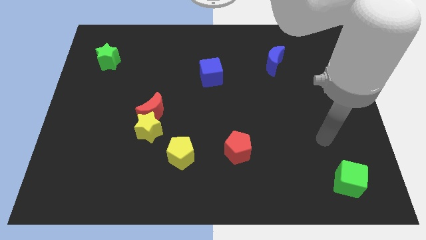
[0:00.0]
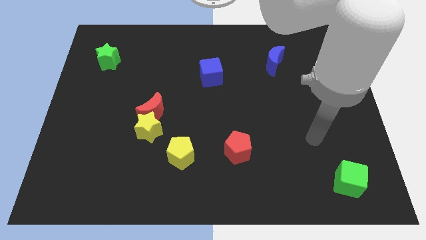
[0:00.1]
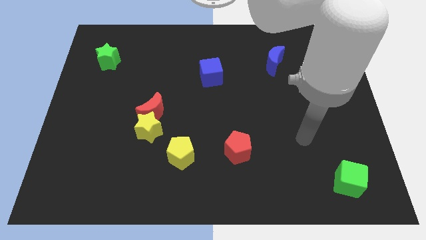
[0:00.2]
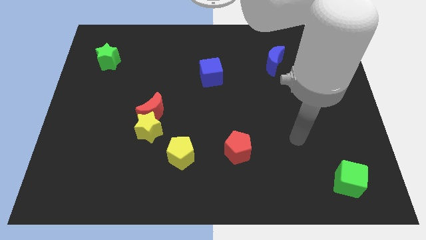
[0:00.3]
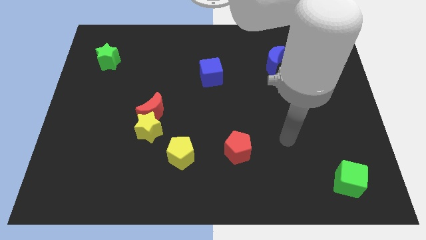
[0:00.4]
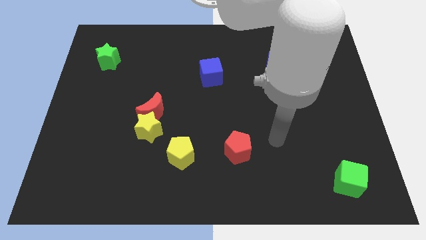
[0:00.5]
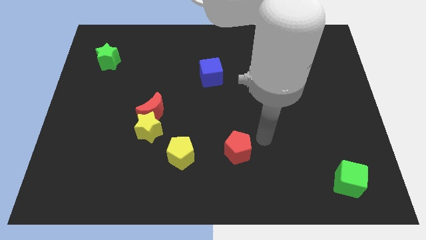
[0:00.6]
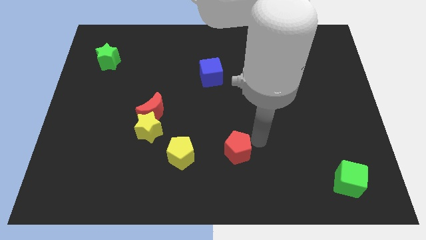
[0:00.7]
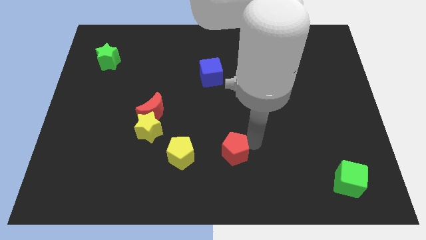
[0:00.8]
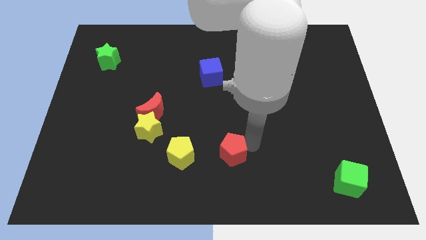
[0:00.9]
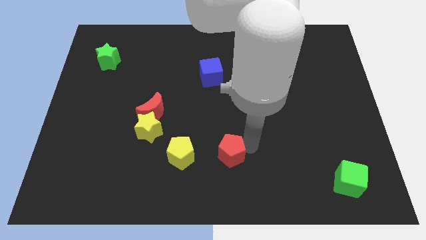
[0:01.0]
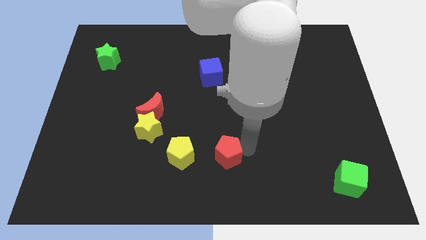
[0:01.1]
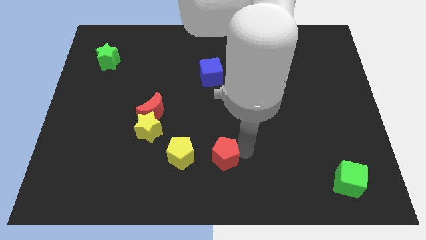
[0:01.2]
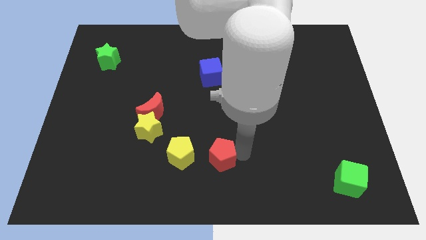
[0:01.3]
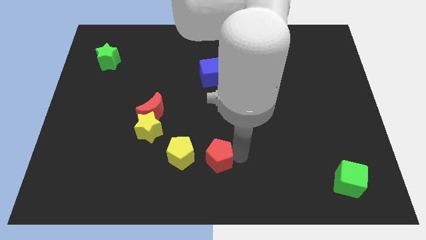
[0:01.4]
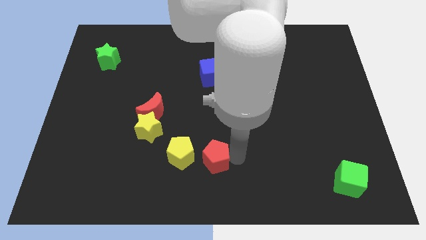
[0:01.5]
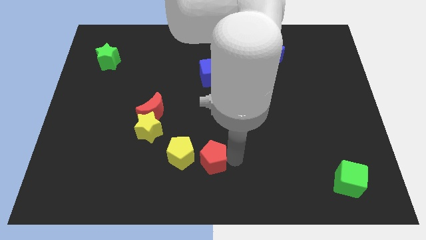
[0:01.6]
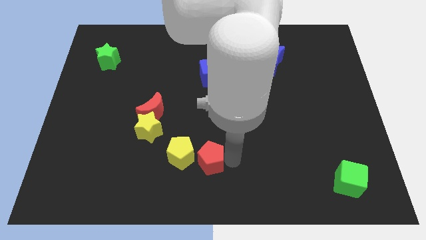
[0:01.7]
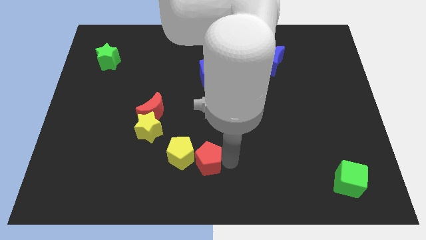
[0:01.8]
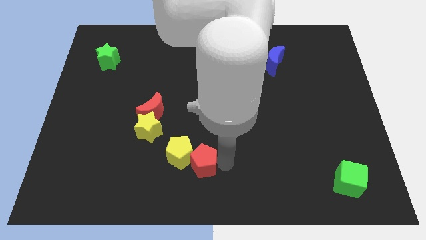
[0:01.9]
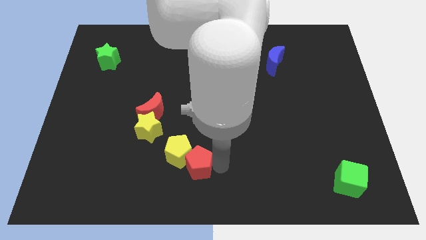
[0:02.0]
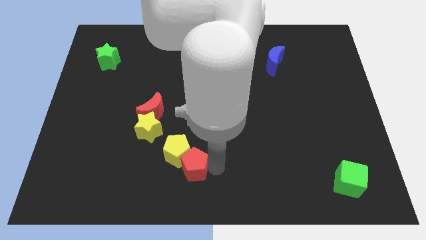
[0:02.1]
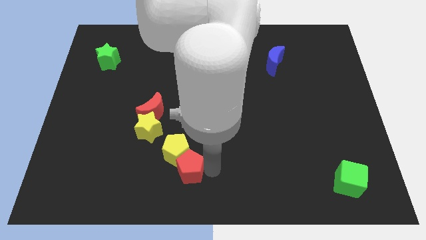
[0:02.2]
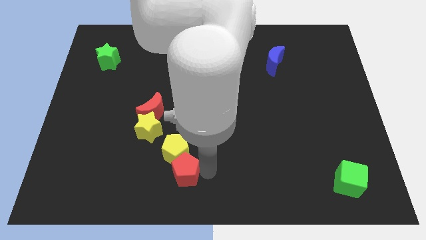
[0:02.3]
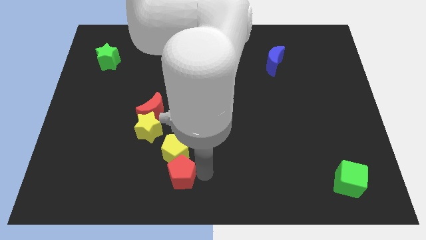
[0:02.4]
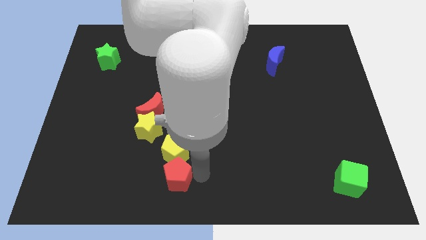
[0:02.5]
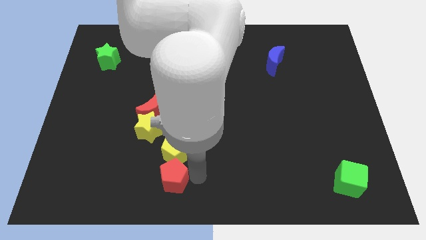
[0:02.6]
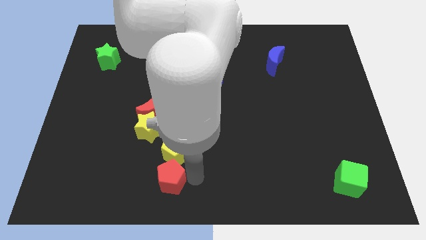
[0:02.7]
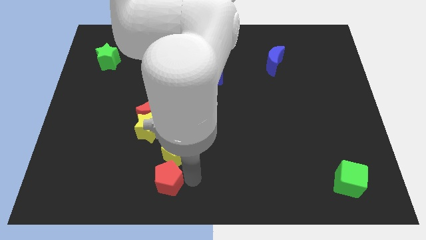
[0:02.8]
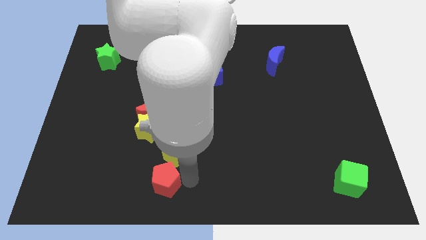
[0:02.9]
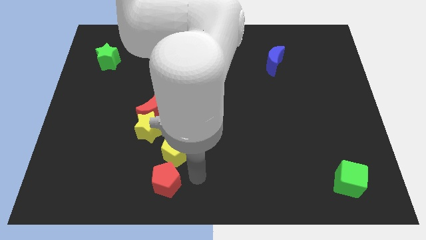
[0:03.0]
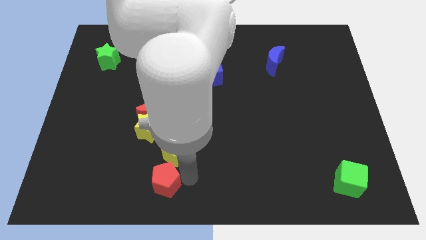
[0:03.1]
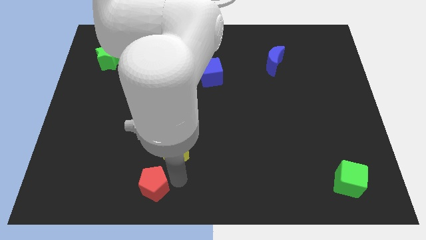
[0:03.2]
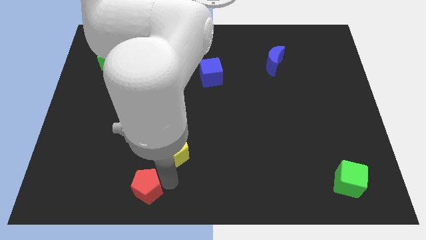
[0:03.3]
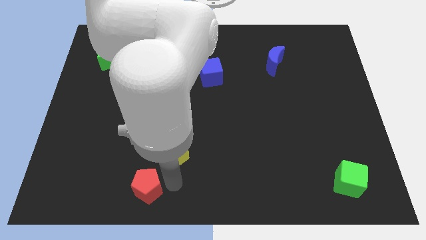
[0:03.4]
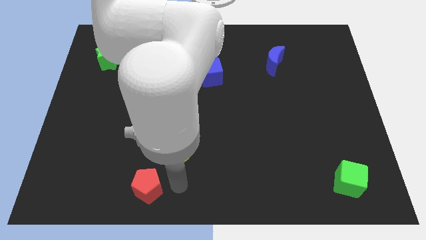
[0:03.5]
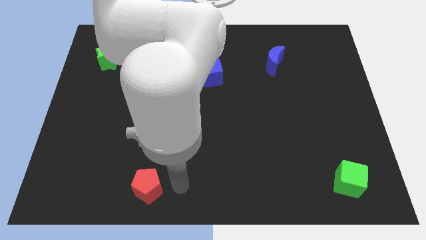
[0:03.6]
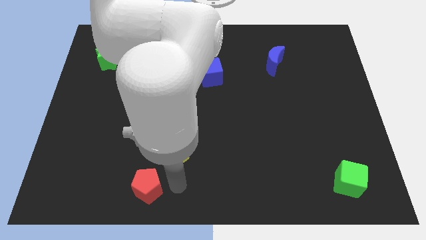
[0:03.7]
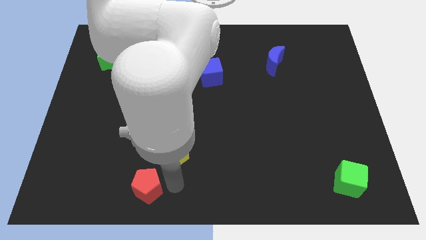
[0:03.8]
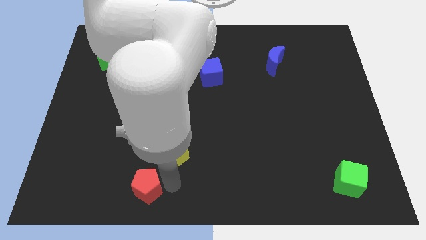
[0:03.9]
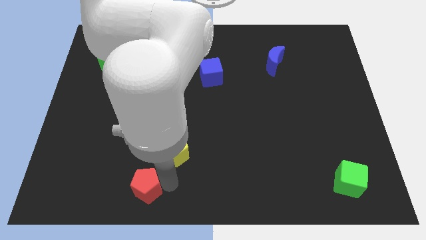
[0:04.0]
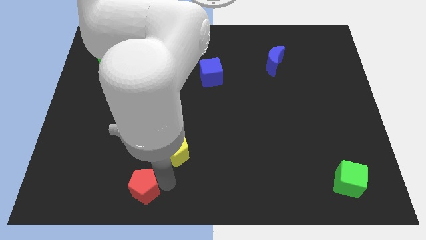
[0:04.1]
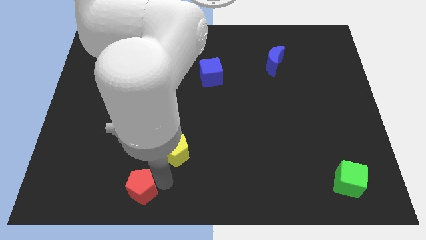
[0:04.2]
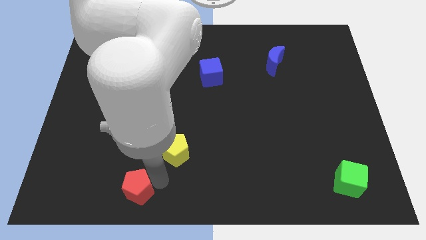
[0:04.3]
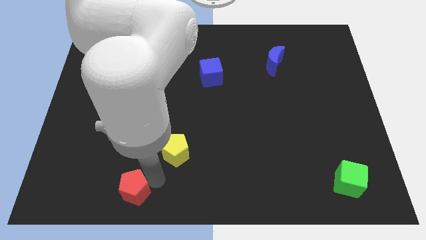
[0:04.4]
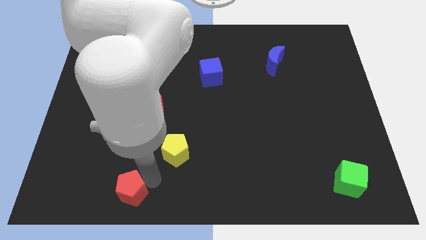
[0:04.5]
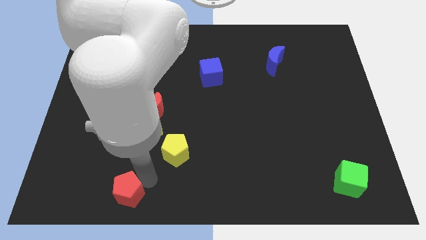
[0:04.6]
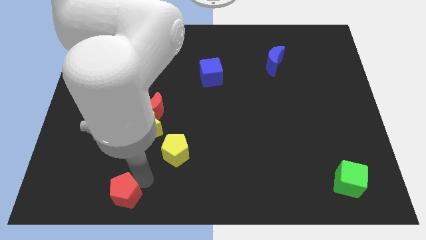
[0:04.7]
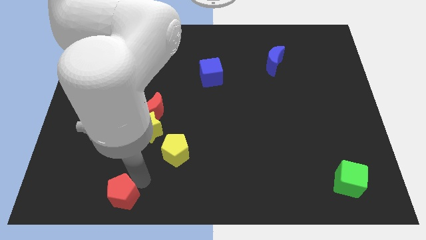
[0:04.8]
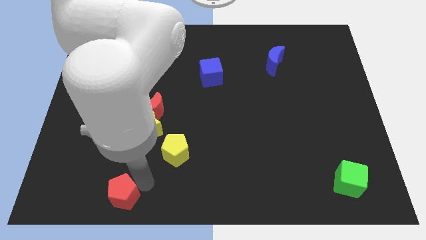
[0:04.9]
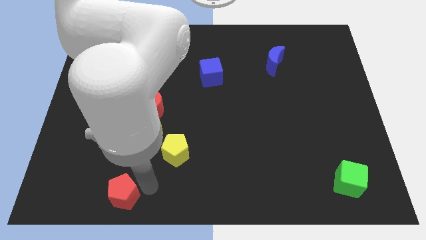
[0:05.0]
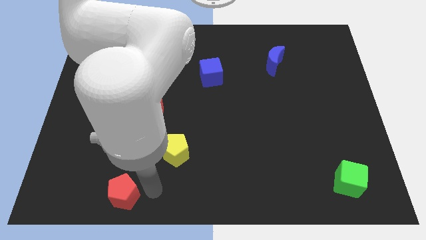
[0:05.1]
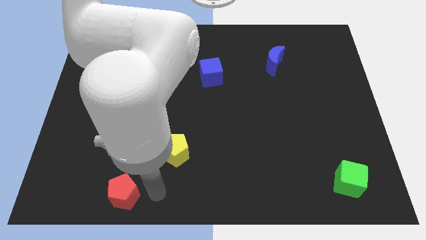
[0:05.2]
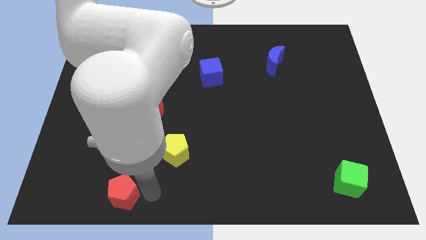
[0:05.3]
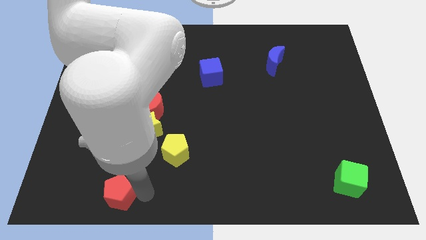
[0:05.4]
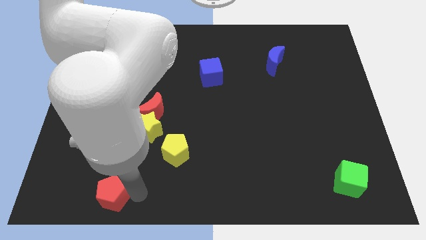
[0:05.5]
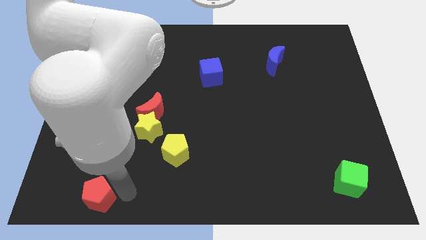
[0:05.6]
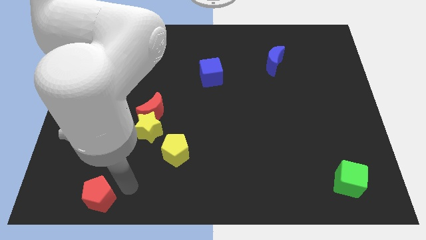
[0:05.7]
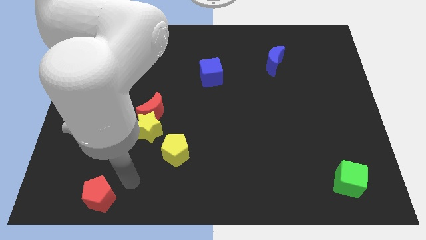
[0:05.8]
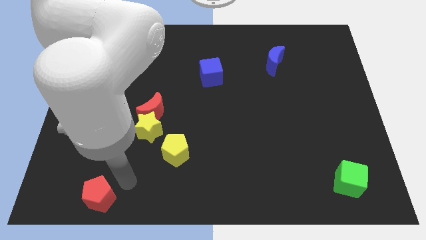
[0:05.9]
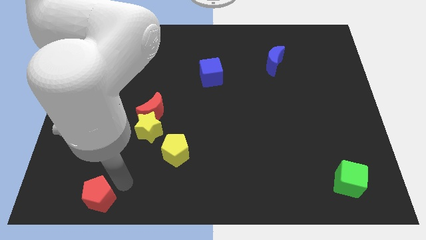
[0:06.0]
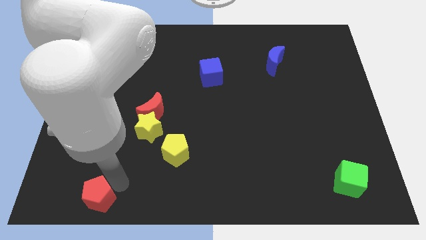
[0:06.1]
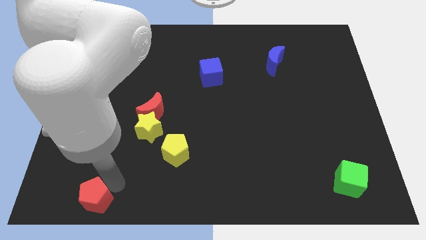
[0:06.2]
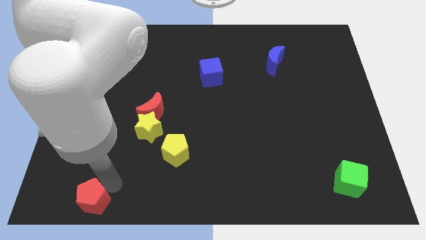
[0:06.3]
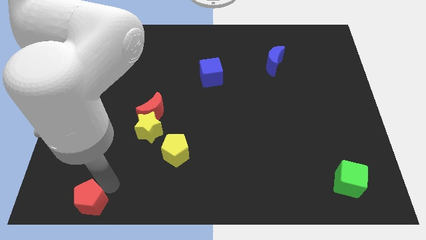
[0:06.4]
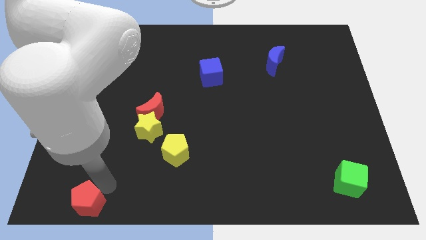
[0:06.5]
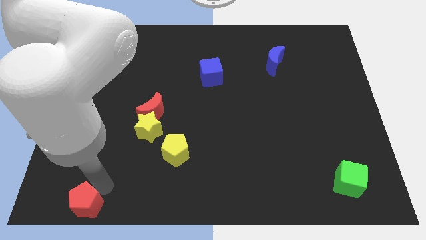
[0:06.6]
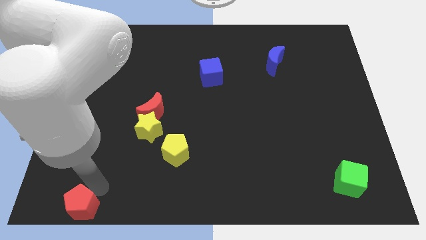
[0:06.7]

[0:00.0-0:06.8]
move the red pentagon to the bottom left of the board
